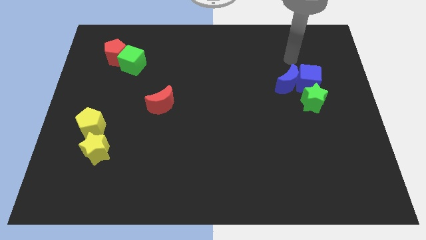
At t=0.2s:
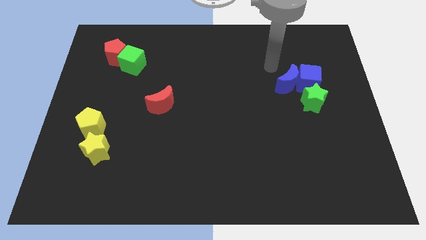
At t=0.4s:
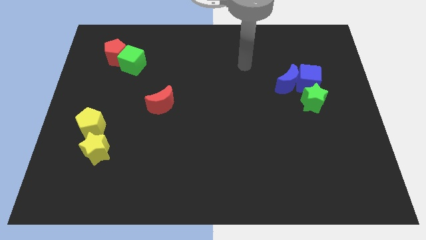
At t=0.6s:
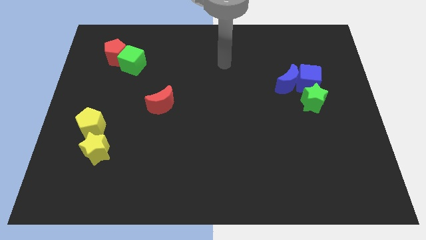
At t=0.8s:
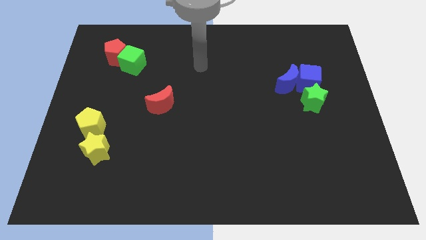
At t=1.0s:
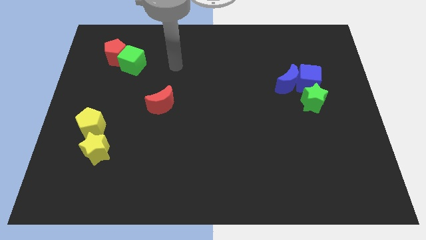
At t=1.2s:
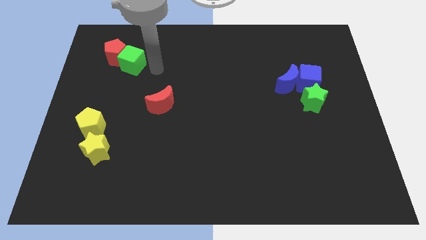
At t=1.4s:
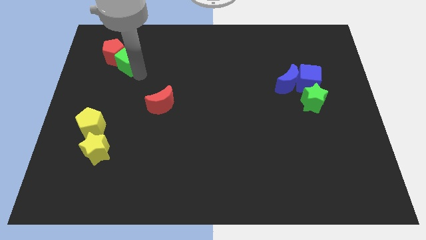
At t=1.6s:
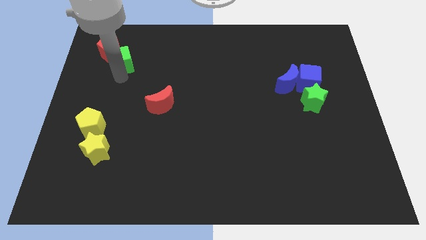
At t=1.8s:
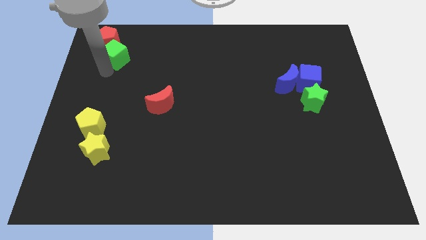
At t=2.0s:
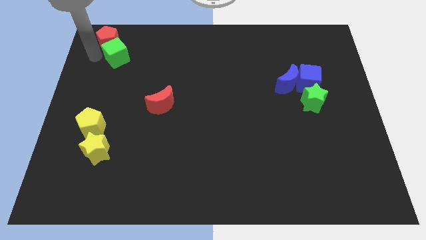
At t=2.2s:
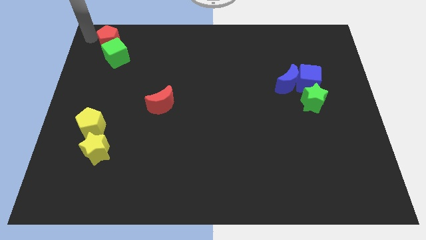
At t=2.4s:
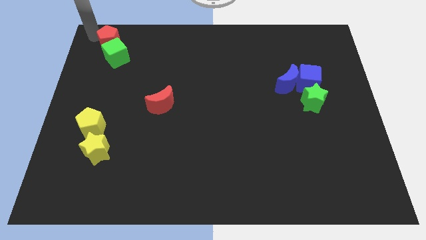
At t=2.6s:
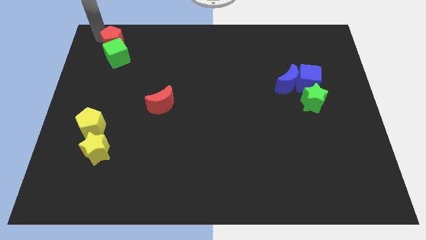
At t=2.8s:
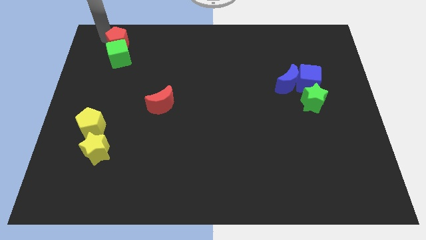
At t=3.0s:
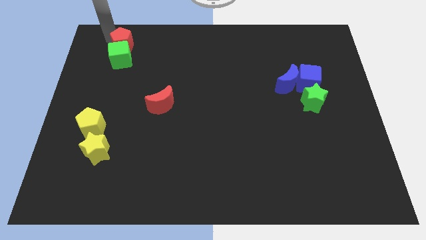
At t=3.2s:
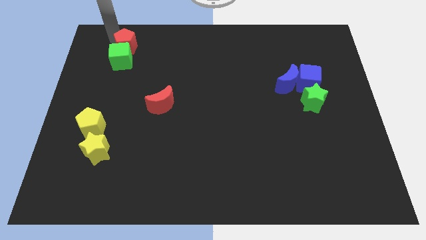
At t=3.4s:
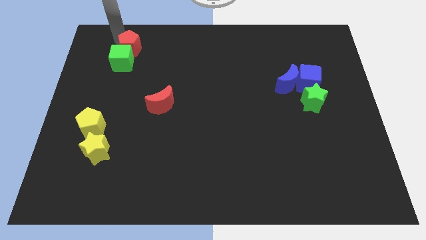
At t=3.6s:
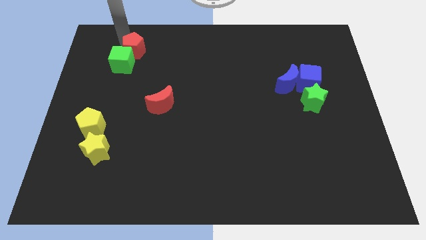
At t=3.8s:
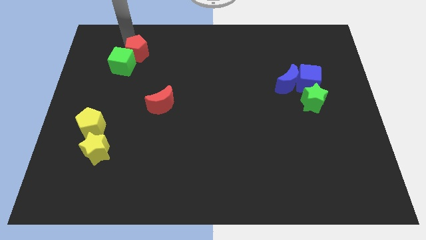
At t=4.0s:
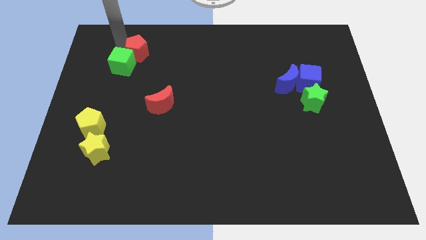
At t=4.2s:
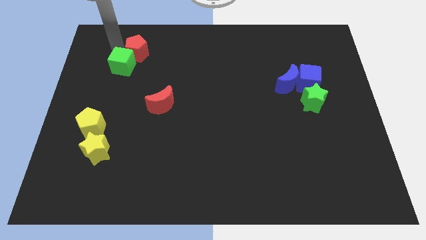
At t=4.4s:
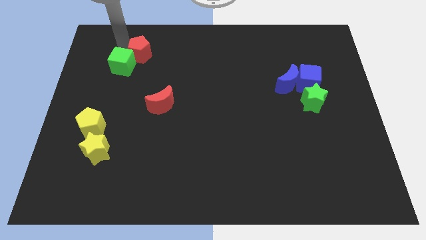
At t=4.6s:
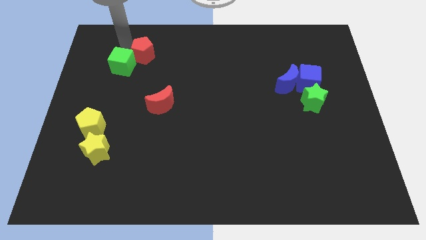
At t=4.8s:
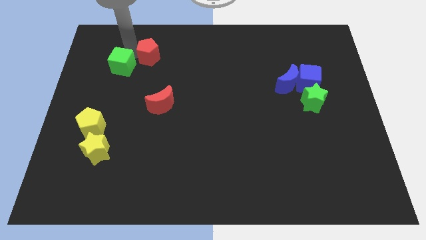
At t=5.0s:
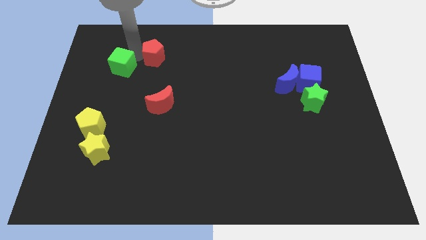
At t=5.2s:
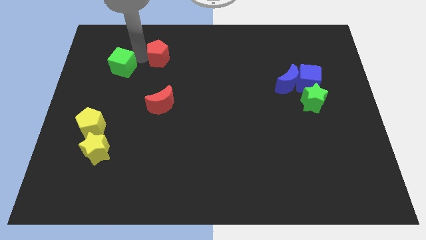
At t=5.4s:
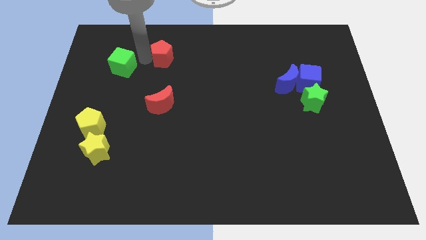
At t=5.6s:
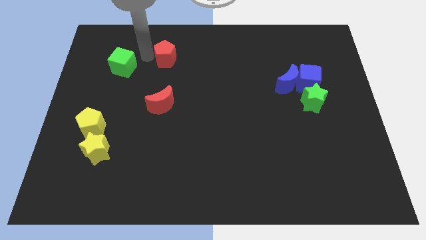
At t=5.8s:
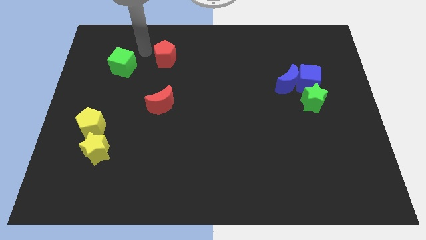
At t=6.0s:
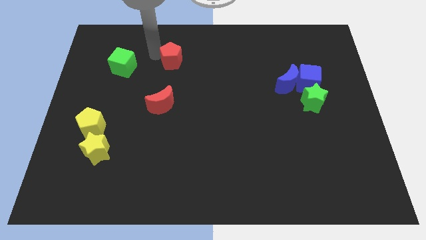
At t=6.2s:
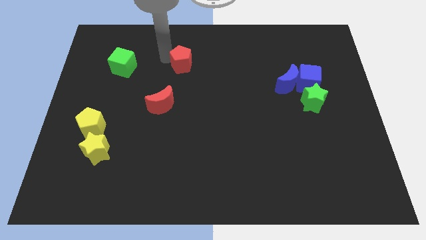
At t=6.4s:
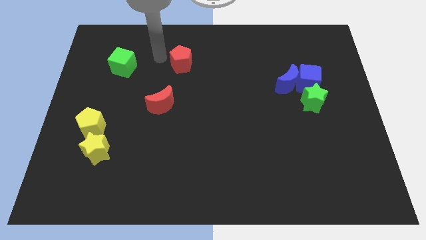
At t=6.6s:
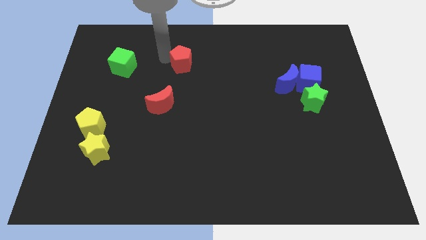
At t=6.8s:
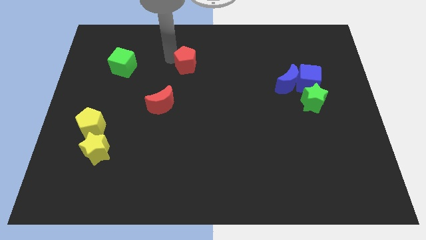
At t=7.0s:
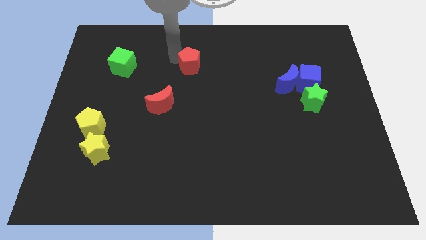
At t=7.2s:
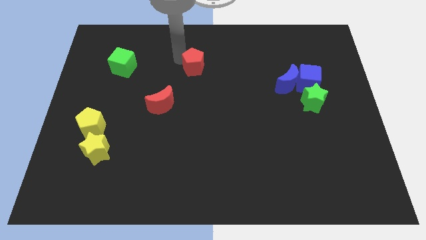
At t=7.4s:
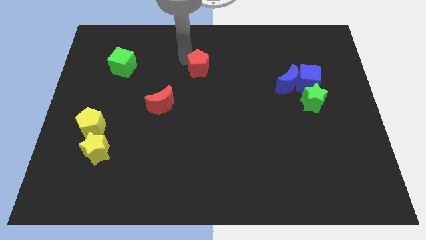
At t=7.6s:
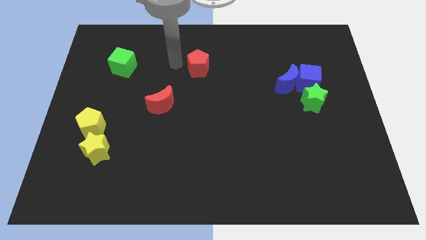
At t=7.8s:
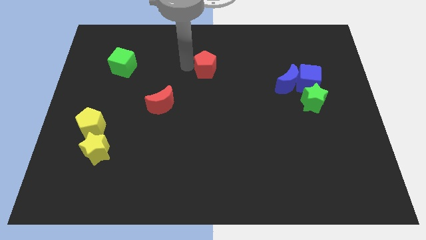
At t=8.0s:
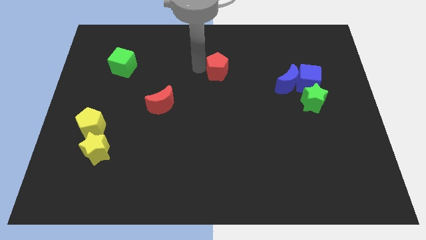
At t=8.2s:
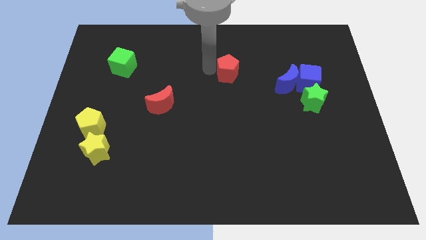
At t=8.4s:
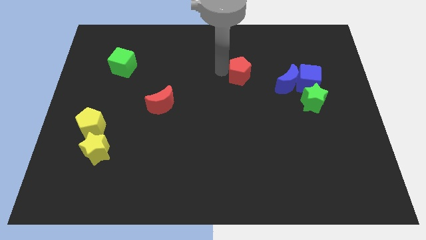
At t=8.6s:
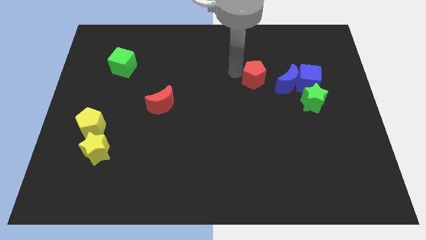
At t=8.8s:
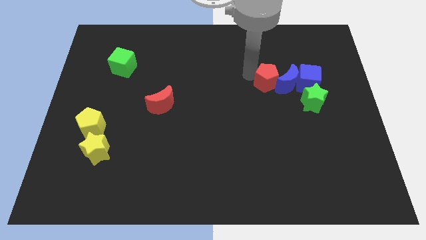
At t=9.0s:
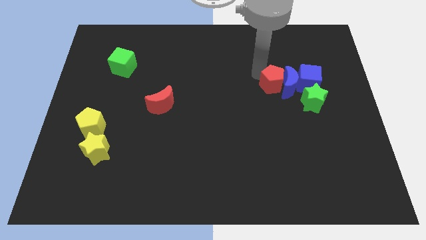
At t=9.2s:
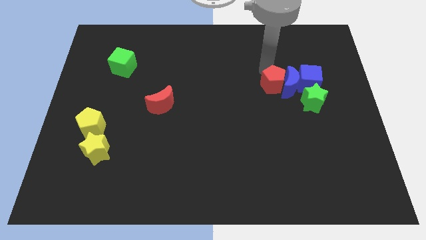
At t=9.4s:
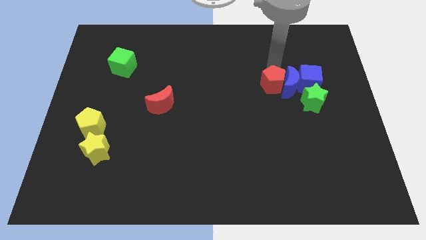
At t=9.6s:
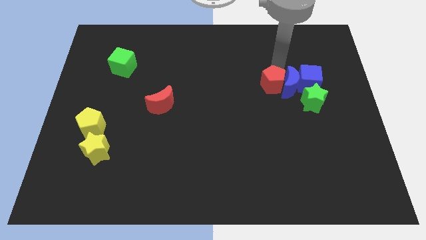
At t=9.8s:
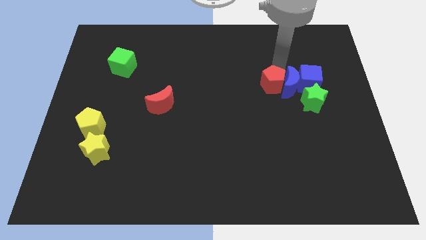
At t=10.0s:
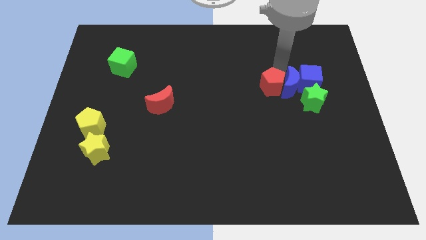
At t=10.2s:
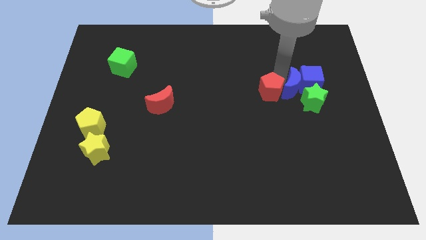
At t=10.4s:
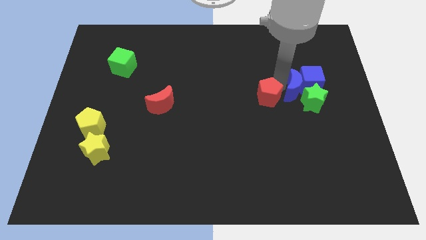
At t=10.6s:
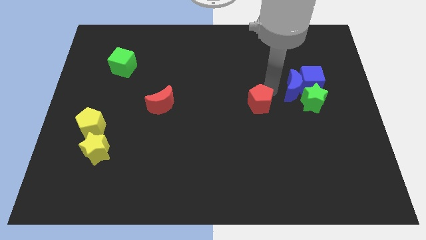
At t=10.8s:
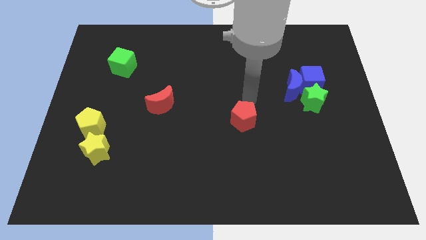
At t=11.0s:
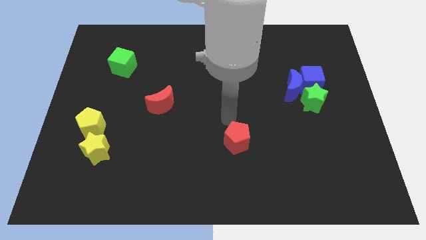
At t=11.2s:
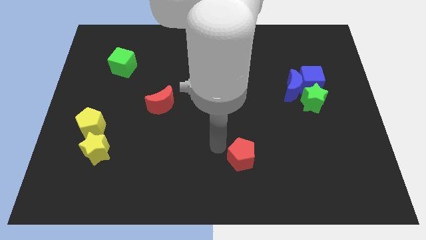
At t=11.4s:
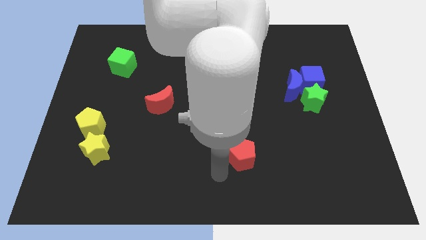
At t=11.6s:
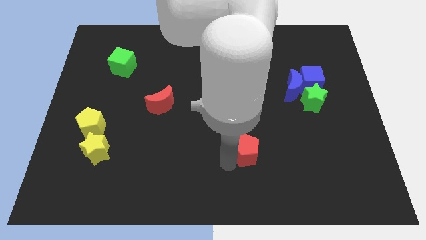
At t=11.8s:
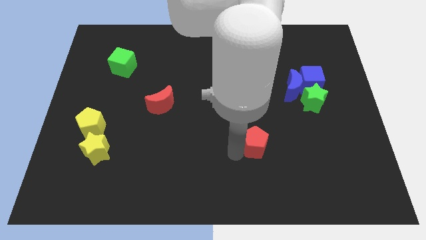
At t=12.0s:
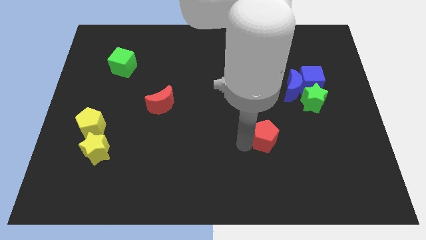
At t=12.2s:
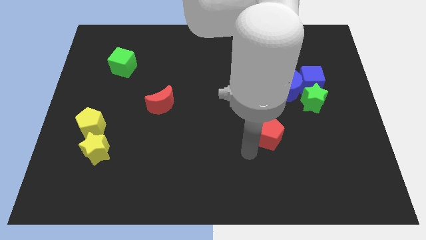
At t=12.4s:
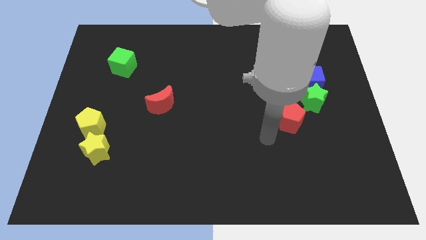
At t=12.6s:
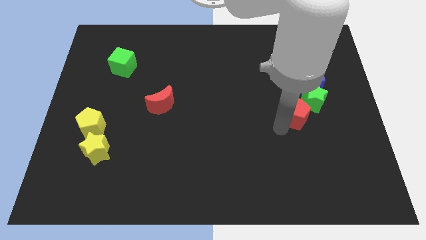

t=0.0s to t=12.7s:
slide the red pentagon next to the green star

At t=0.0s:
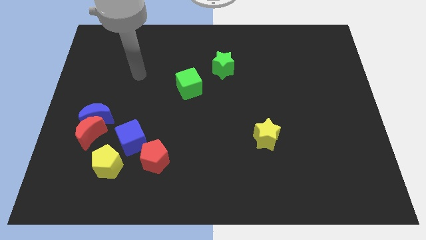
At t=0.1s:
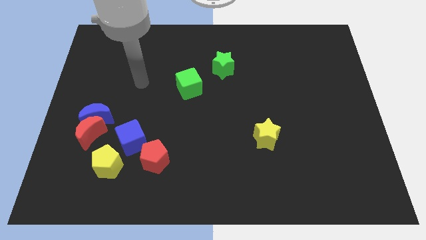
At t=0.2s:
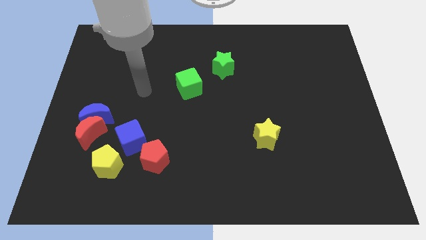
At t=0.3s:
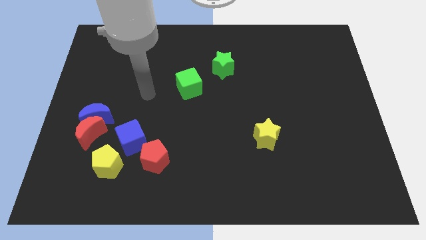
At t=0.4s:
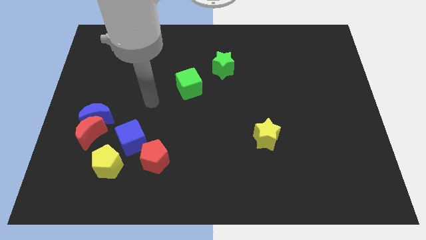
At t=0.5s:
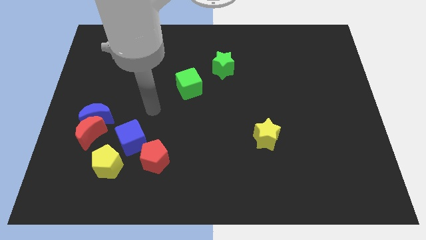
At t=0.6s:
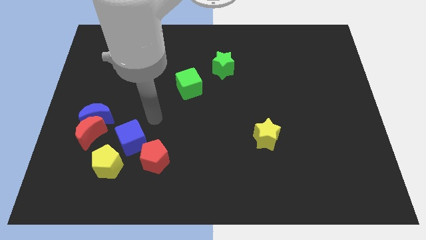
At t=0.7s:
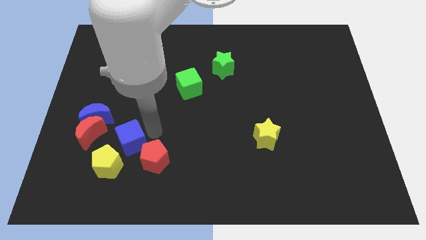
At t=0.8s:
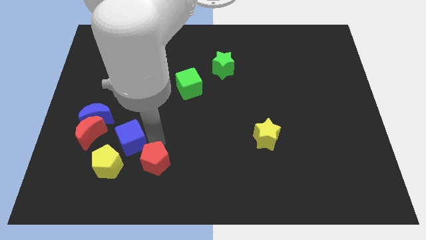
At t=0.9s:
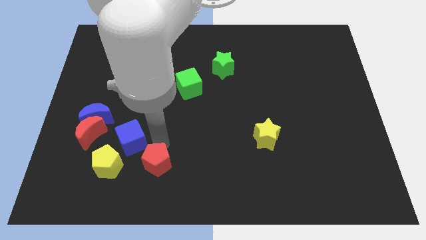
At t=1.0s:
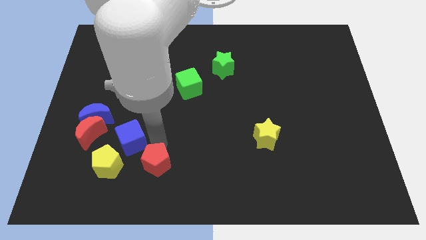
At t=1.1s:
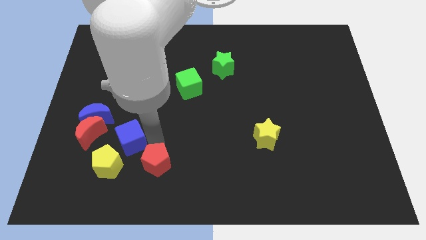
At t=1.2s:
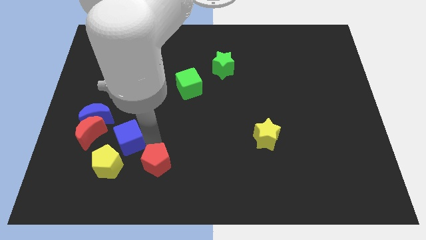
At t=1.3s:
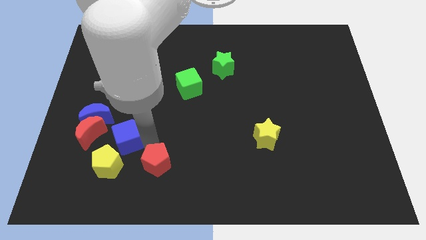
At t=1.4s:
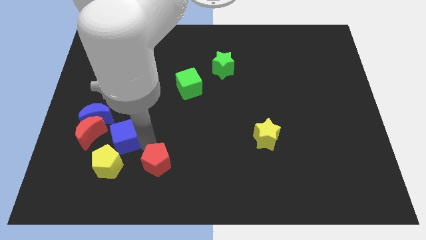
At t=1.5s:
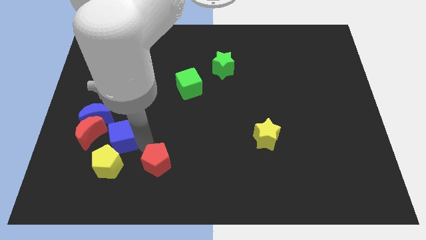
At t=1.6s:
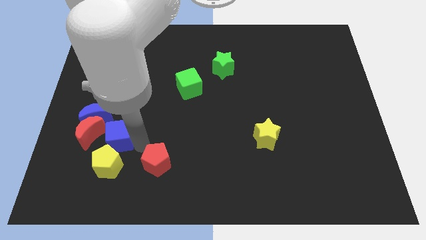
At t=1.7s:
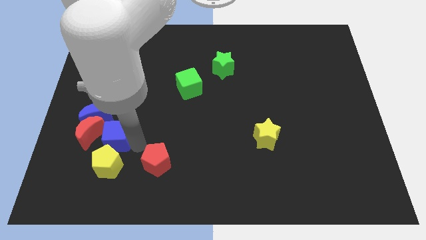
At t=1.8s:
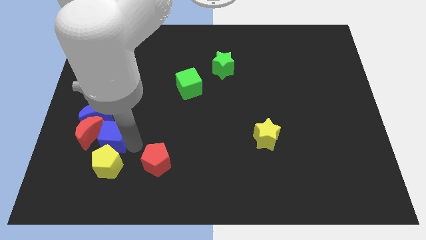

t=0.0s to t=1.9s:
put the blue cube towards the red moon

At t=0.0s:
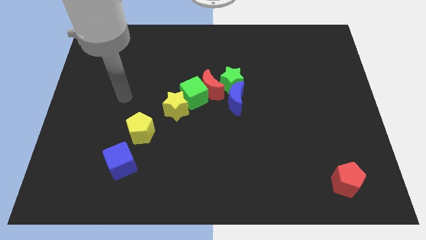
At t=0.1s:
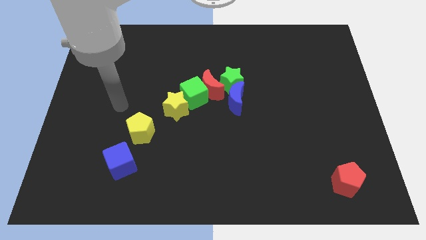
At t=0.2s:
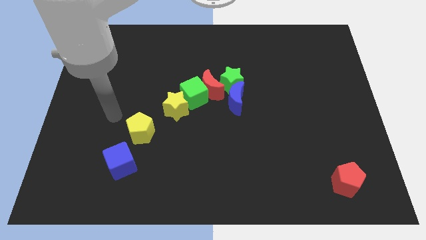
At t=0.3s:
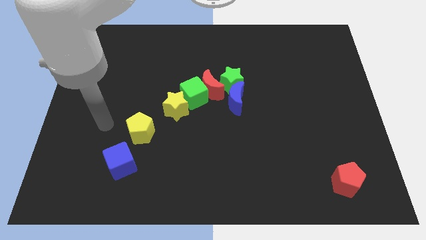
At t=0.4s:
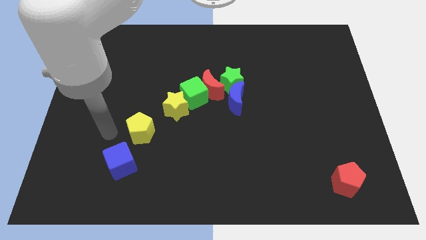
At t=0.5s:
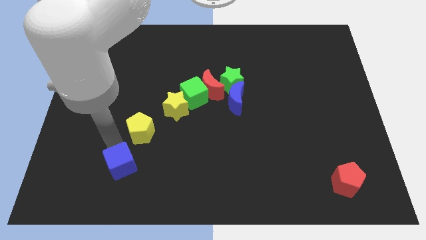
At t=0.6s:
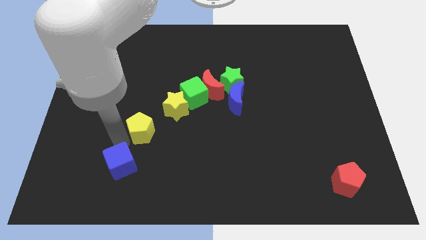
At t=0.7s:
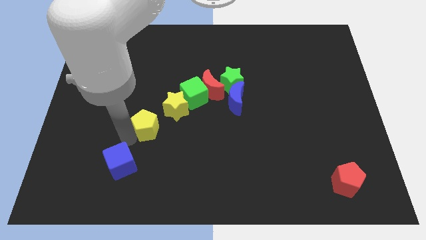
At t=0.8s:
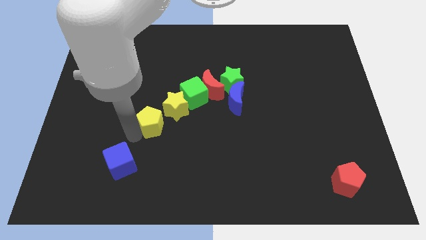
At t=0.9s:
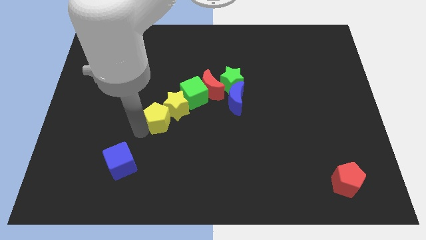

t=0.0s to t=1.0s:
move the yellow pentagon next to the yellow star
